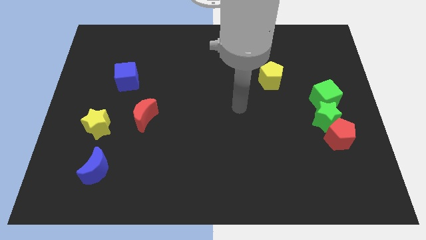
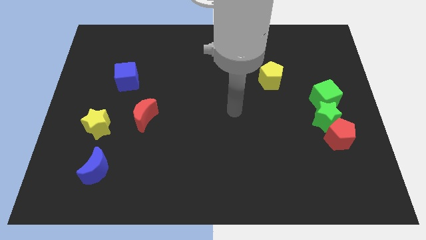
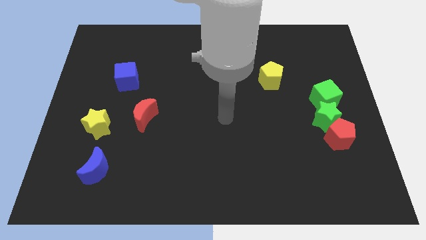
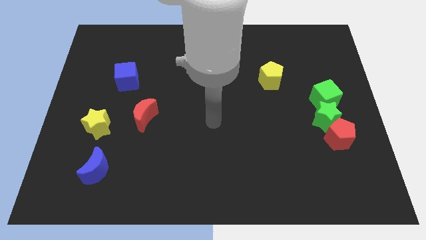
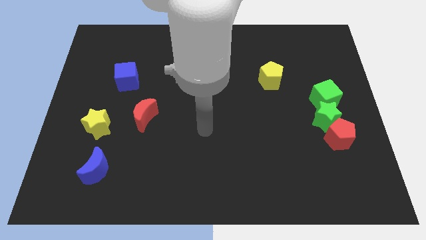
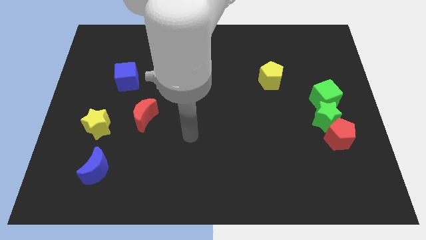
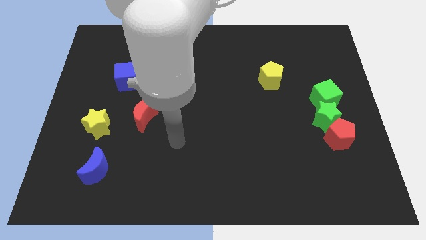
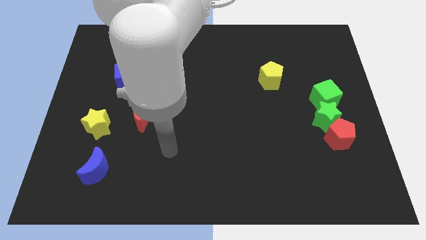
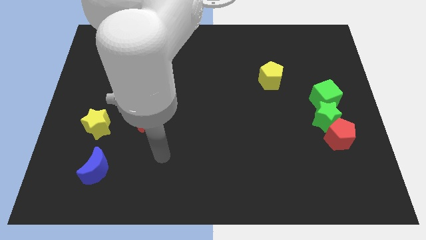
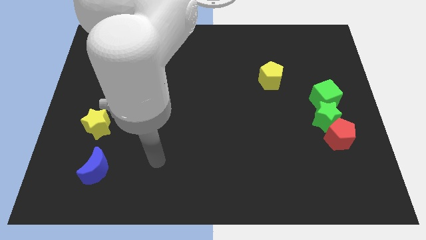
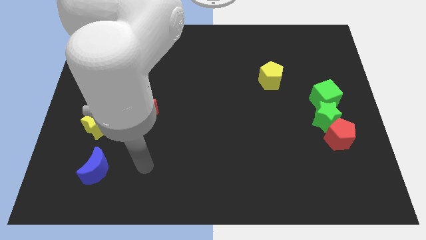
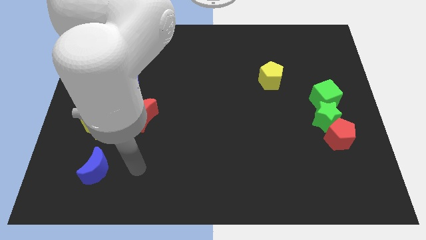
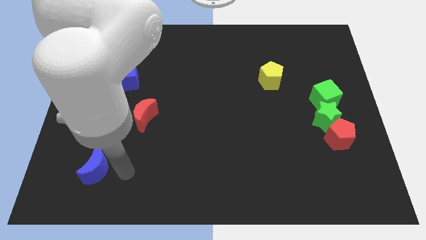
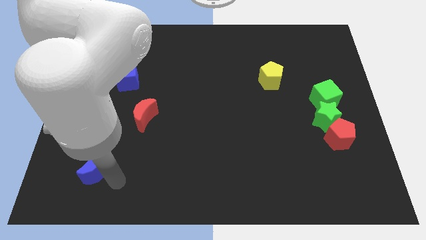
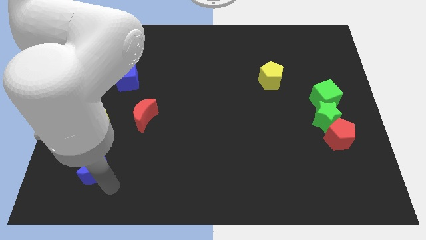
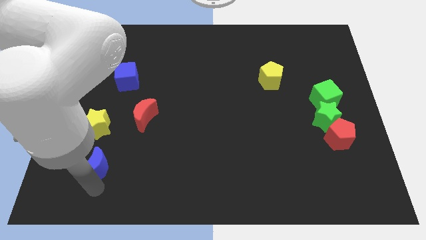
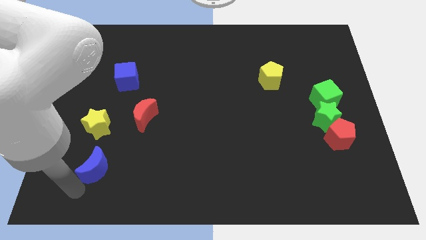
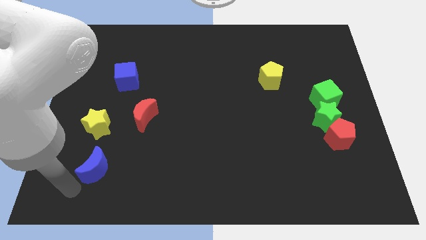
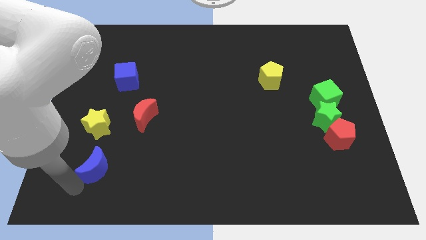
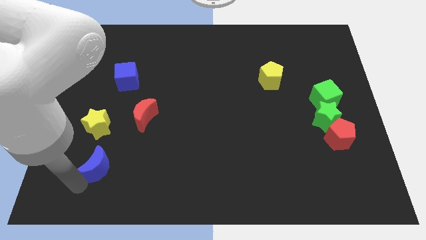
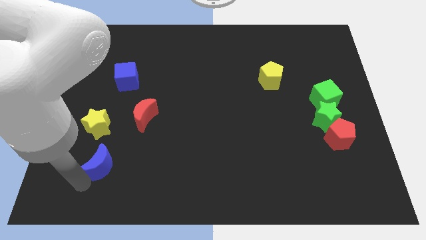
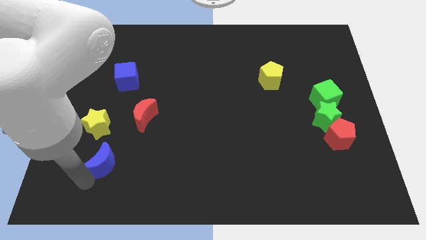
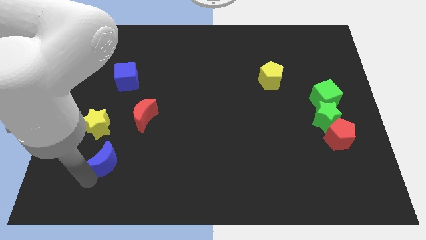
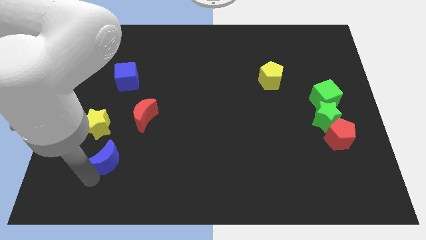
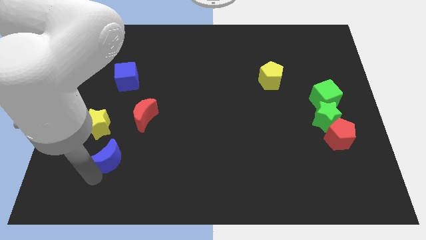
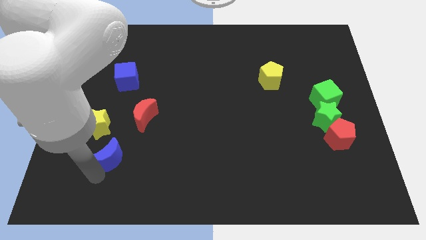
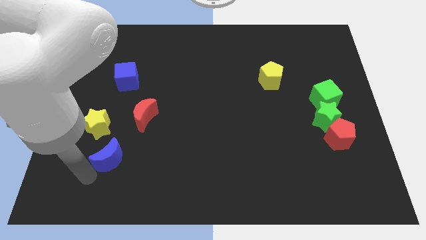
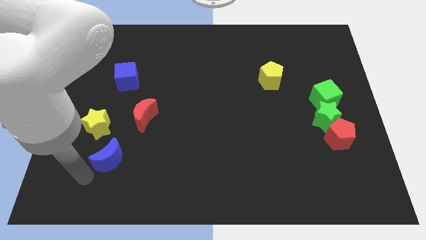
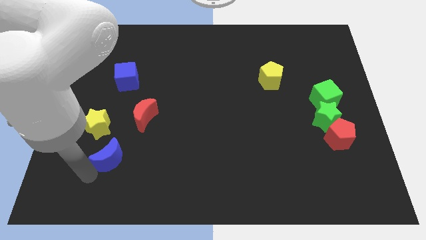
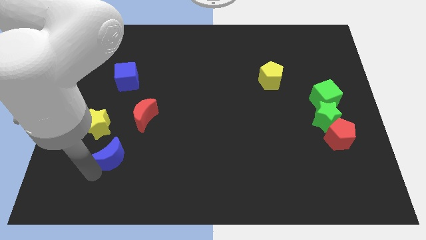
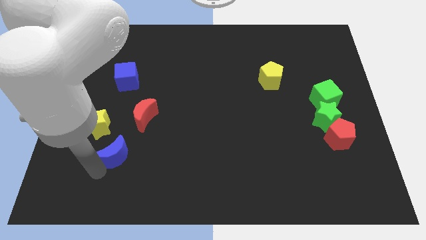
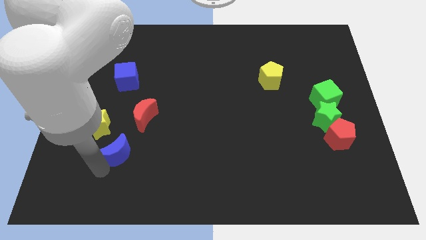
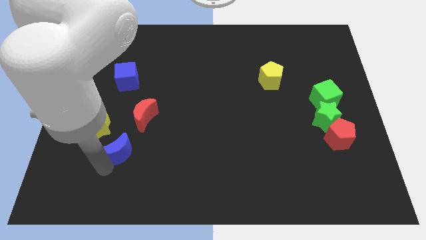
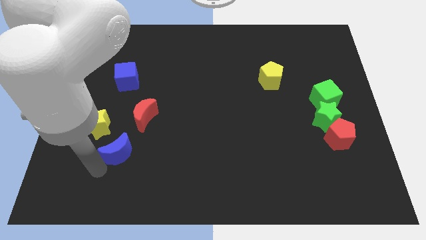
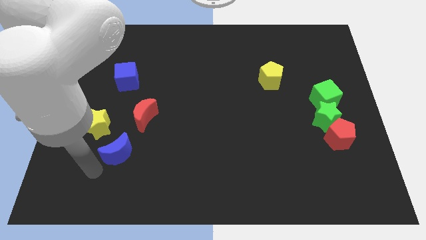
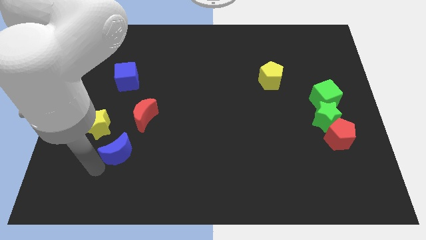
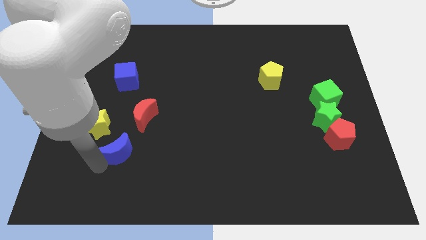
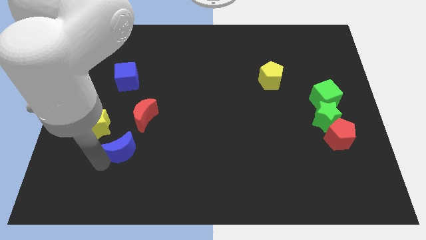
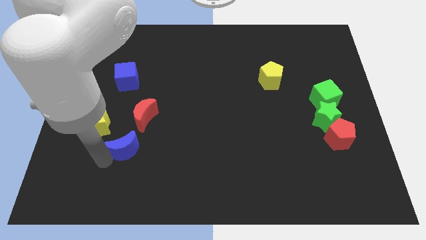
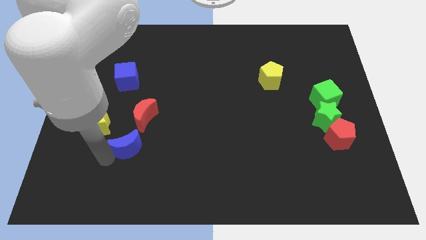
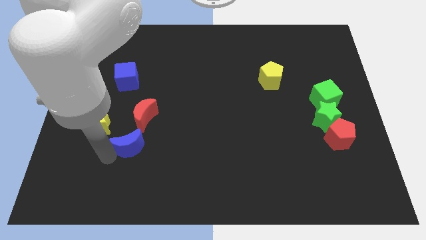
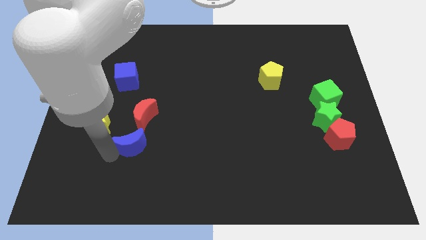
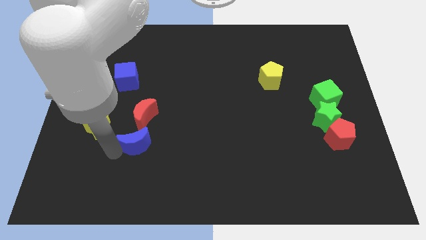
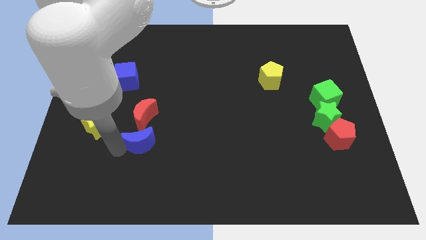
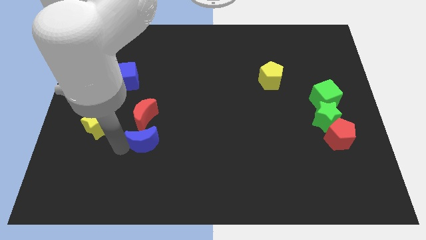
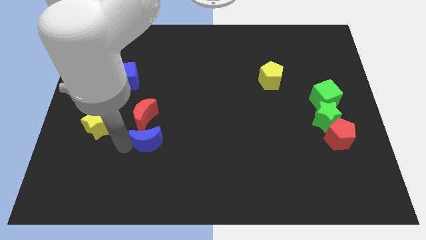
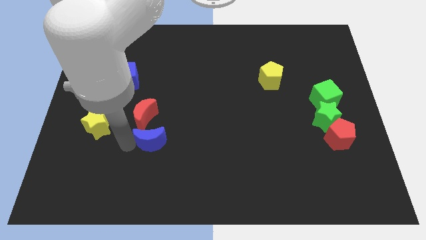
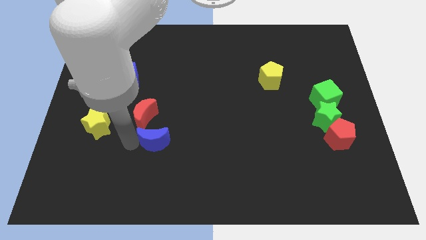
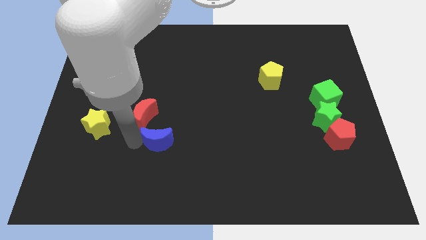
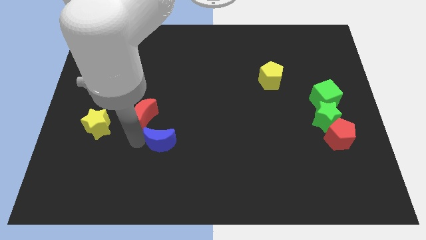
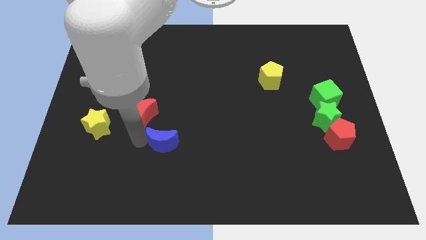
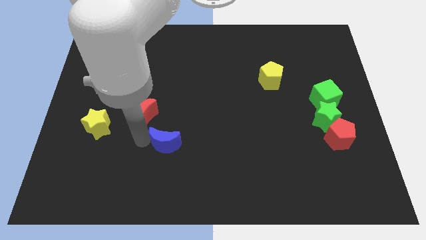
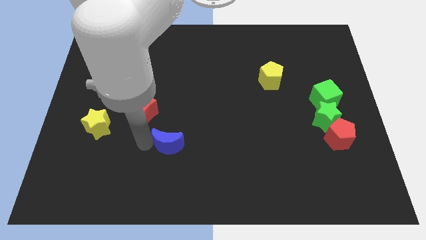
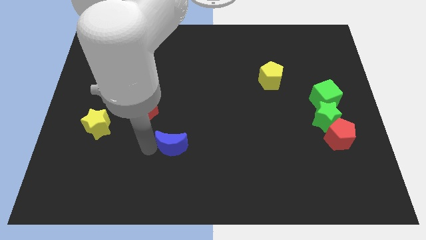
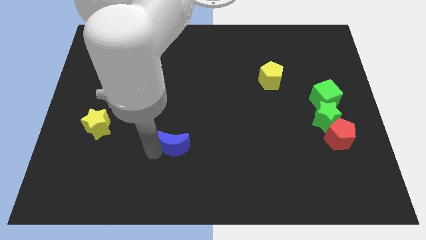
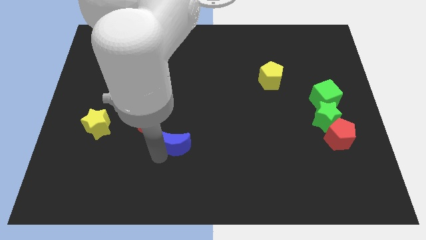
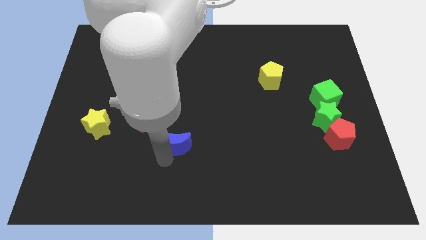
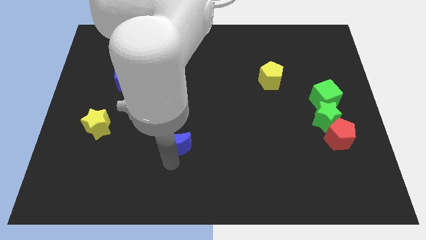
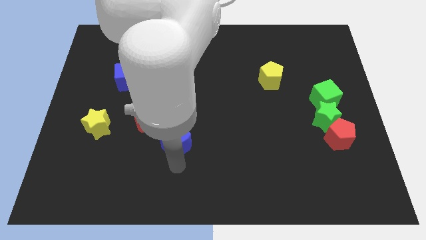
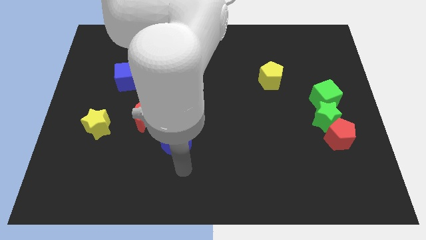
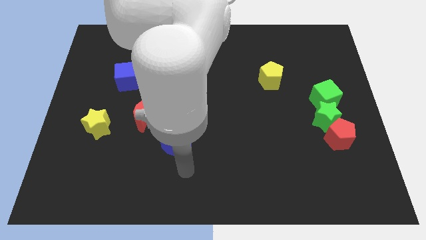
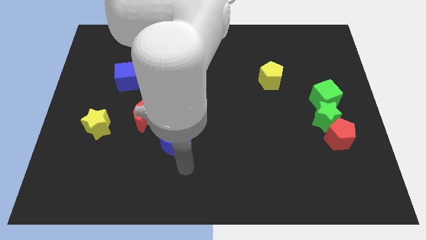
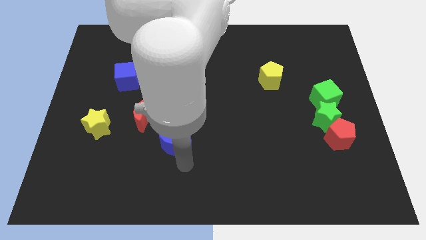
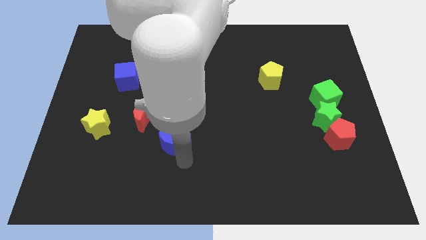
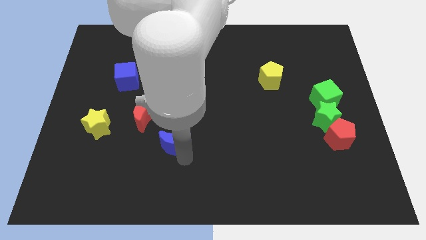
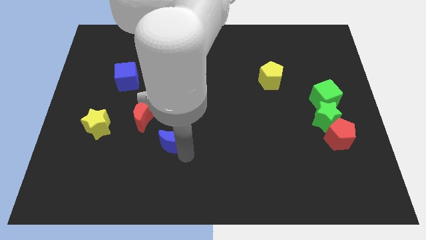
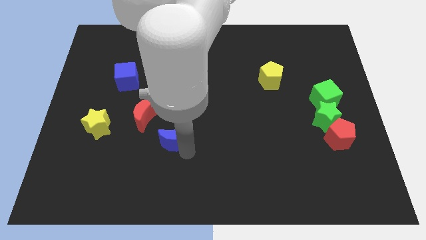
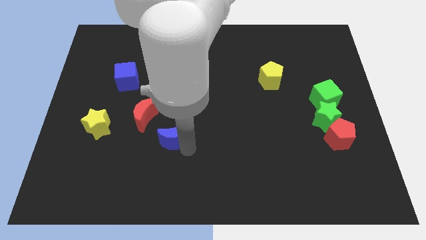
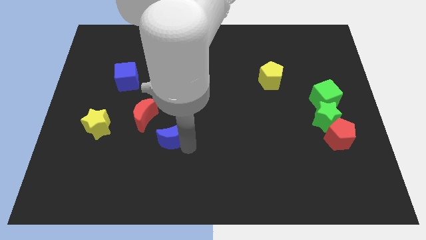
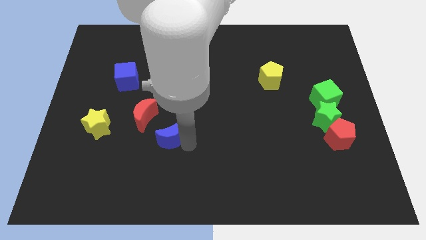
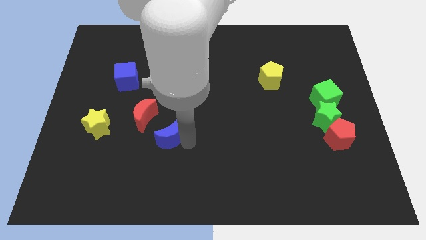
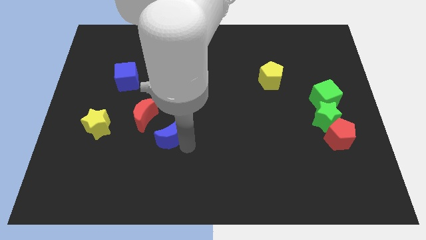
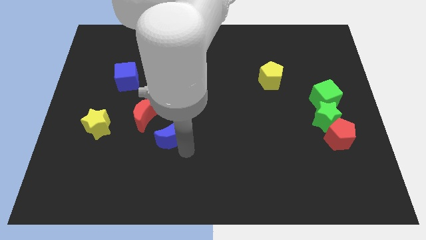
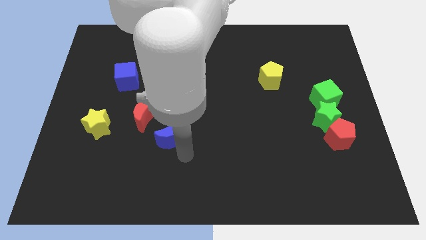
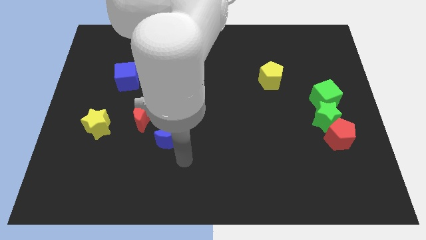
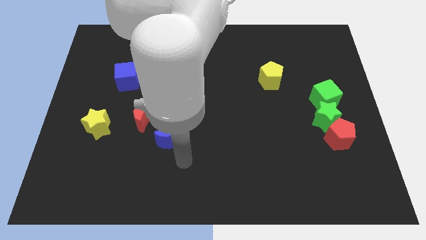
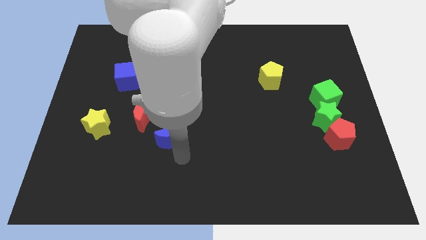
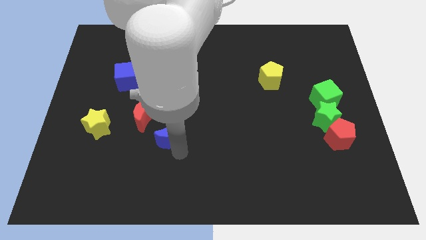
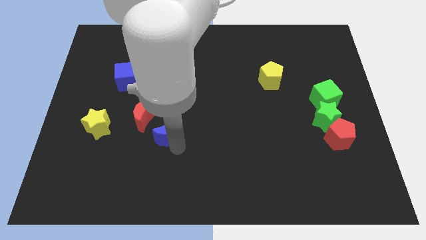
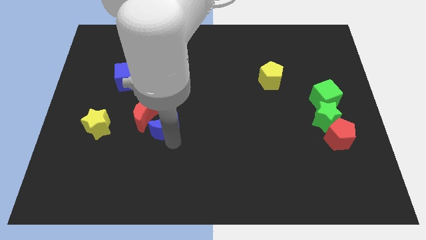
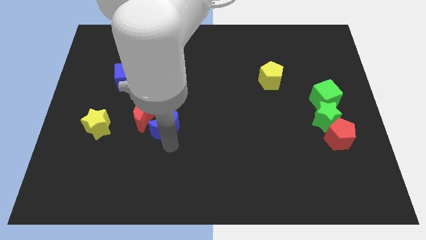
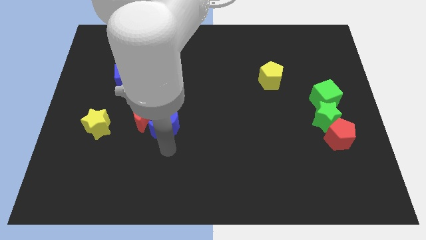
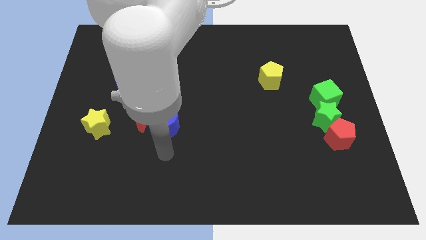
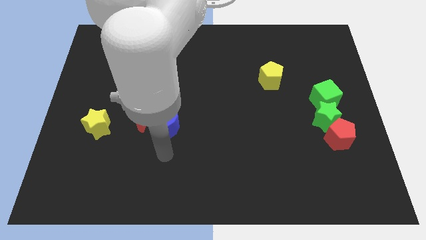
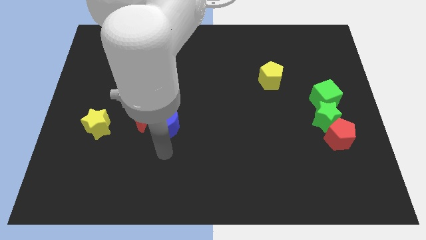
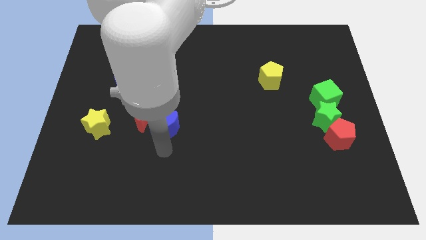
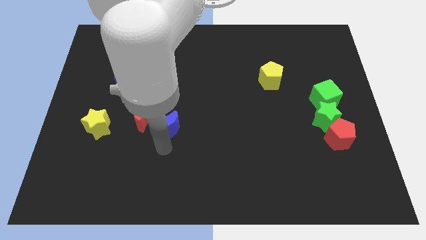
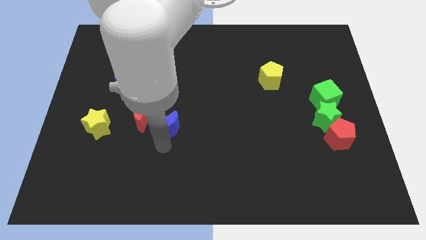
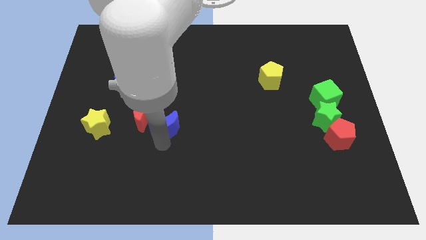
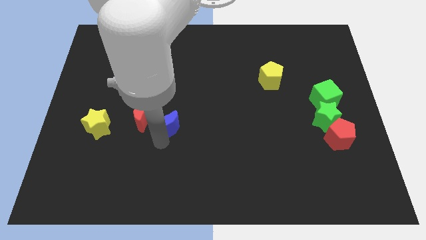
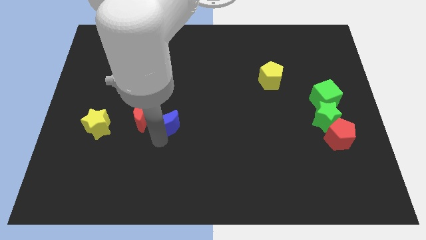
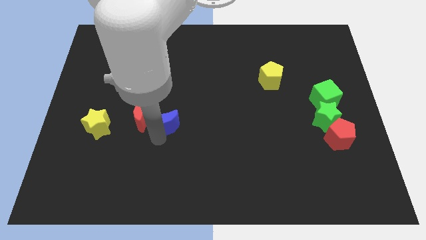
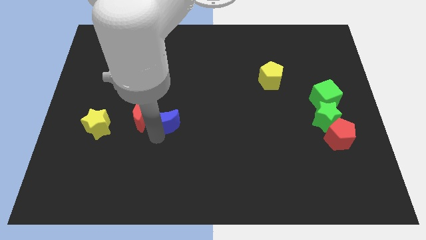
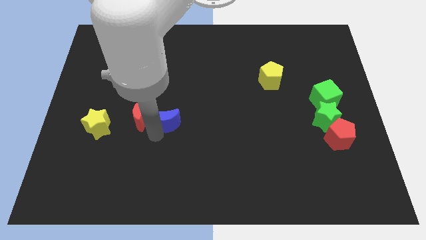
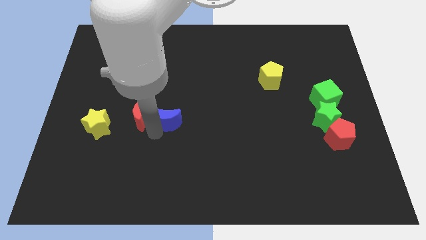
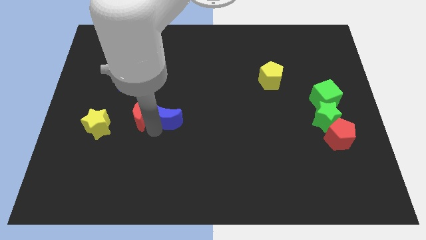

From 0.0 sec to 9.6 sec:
put the blue moon to the top right side of the red moon
